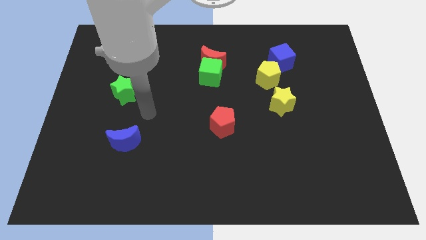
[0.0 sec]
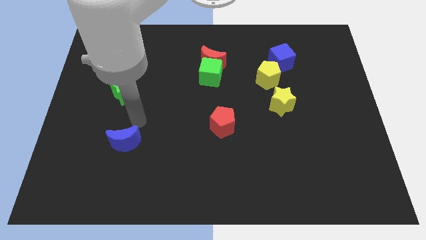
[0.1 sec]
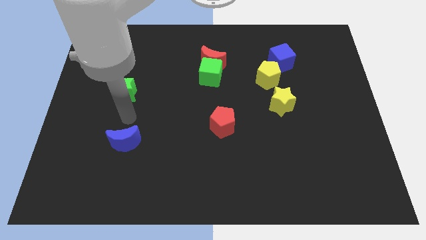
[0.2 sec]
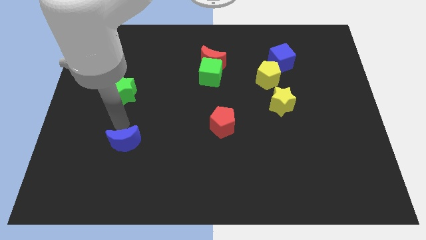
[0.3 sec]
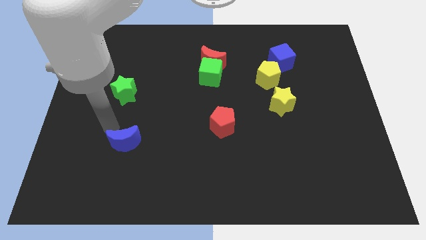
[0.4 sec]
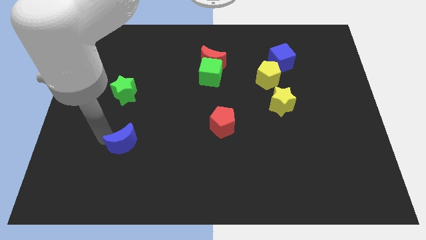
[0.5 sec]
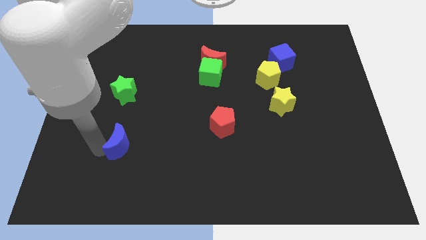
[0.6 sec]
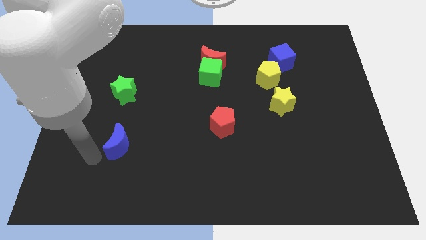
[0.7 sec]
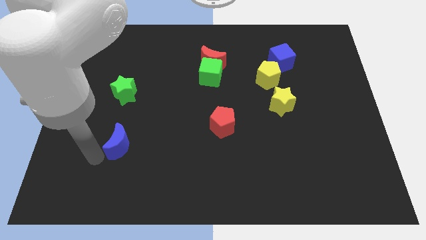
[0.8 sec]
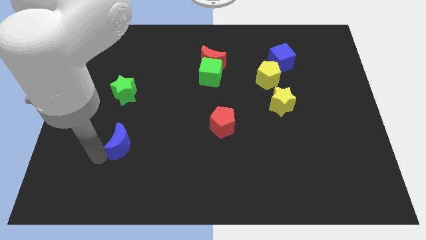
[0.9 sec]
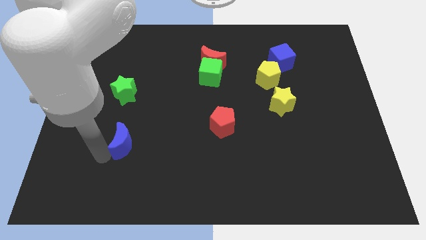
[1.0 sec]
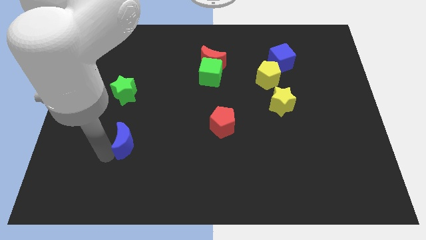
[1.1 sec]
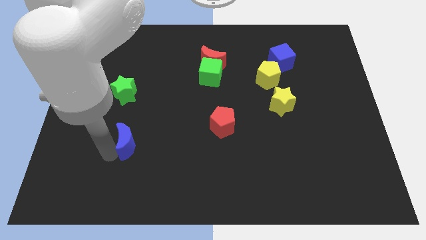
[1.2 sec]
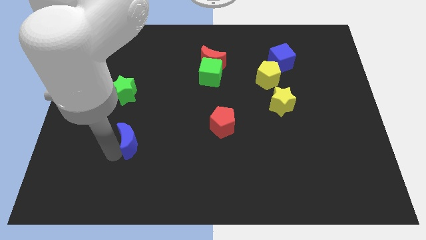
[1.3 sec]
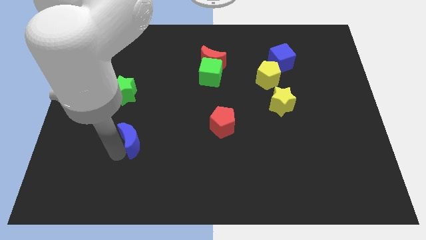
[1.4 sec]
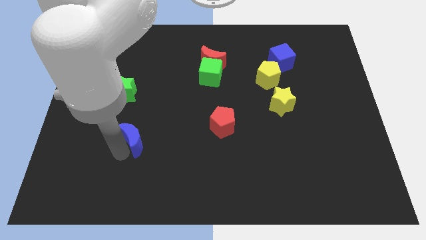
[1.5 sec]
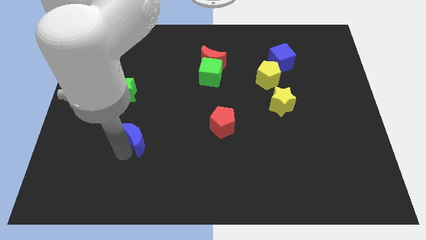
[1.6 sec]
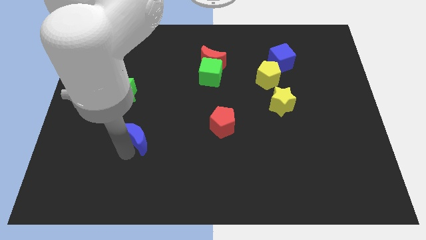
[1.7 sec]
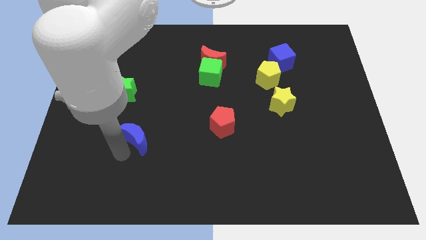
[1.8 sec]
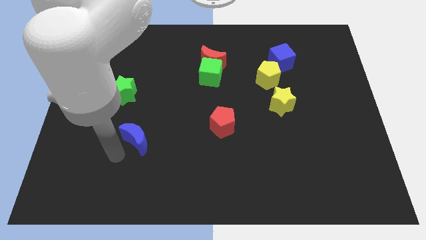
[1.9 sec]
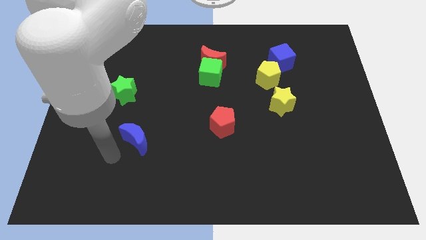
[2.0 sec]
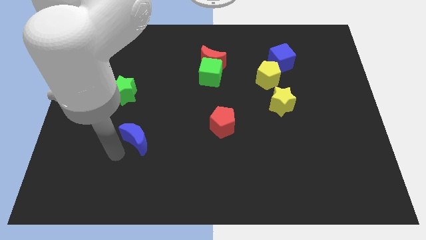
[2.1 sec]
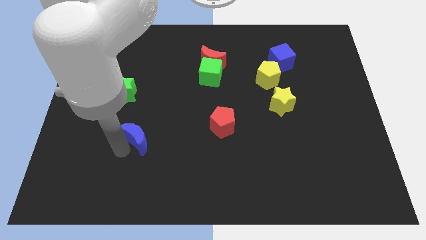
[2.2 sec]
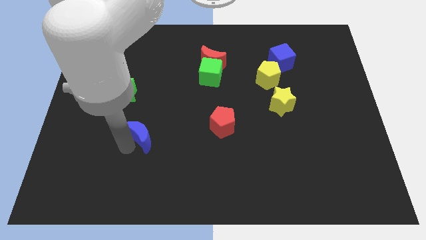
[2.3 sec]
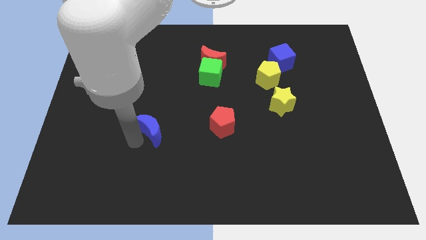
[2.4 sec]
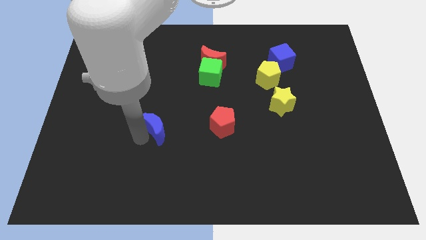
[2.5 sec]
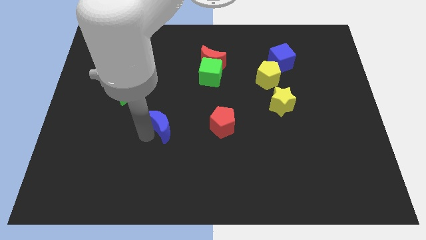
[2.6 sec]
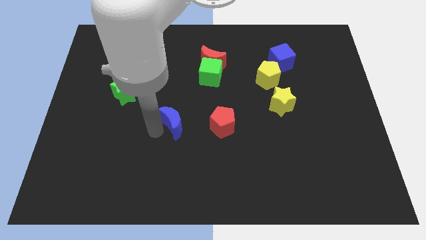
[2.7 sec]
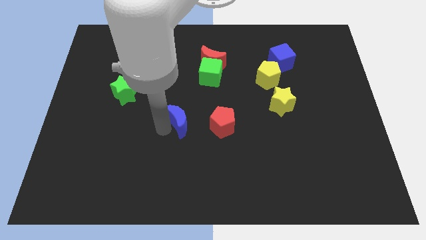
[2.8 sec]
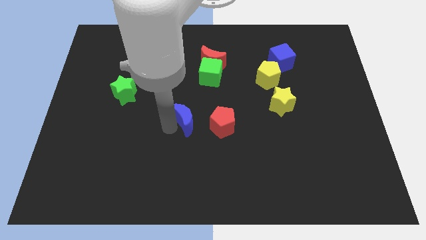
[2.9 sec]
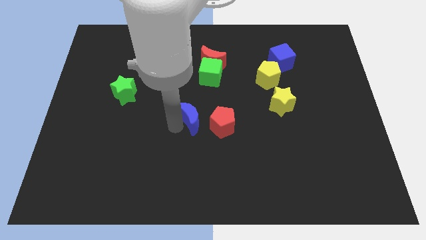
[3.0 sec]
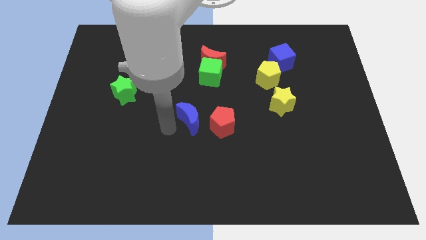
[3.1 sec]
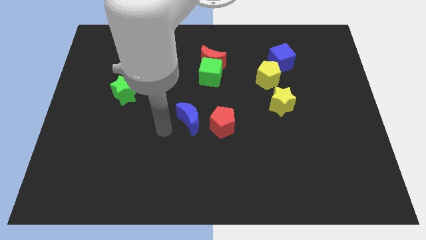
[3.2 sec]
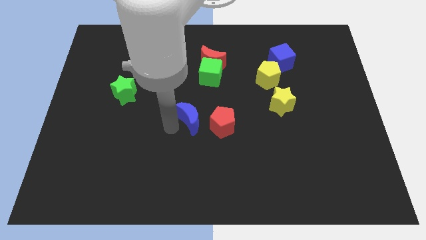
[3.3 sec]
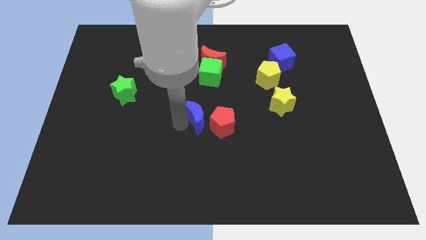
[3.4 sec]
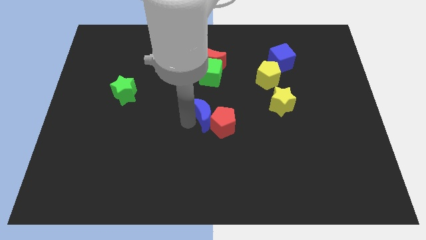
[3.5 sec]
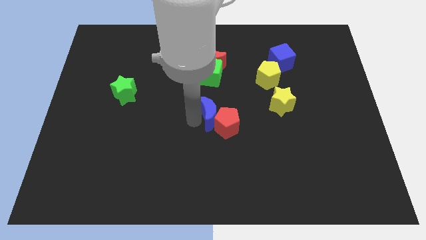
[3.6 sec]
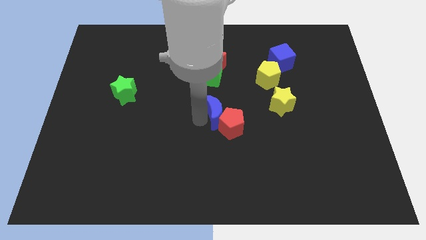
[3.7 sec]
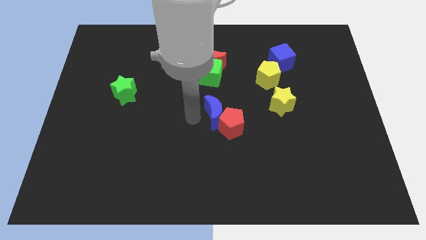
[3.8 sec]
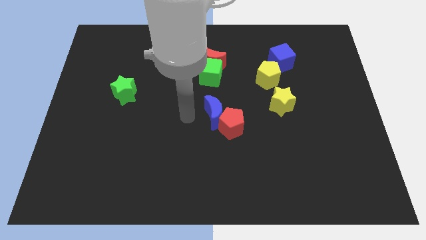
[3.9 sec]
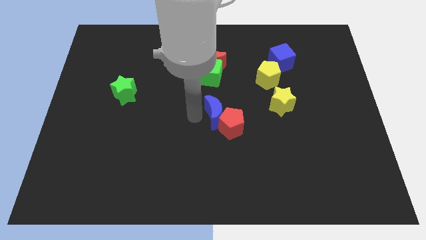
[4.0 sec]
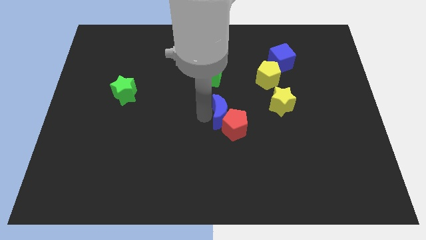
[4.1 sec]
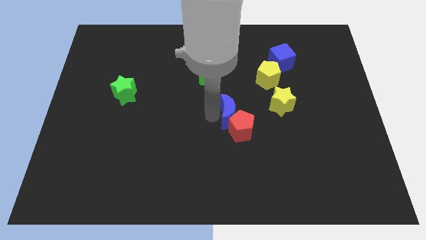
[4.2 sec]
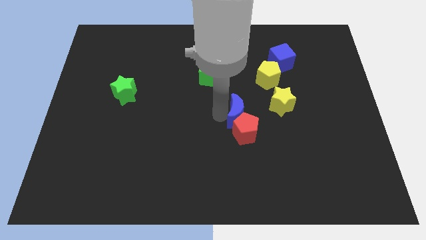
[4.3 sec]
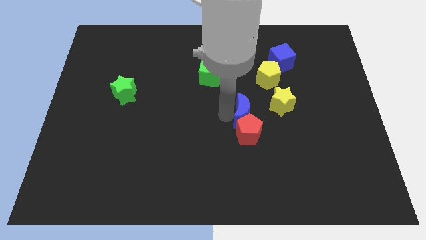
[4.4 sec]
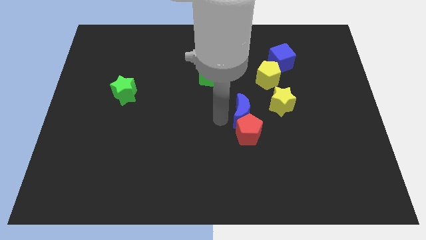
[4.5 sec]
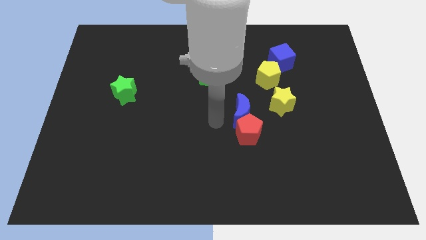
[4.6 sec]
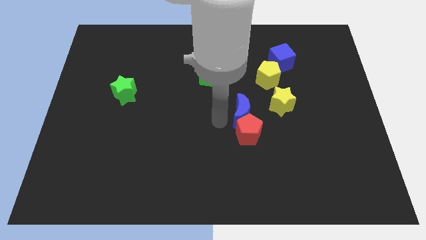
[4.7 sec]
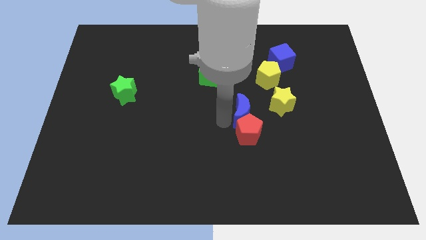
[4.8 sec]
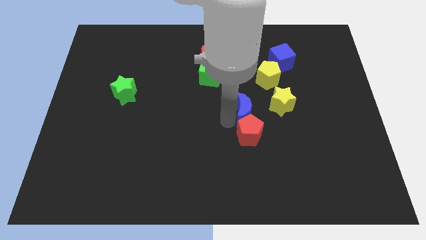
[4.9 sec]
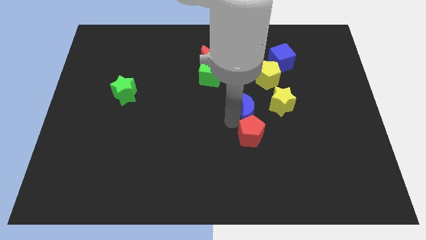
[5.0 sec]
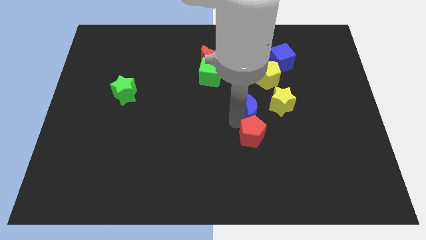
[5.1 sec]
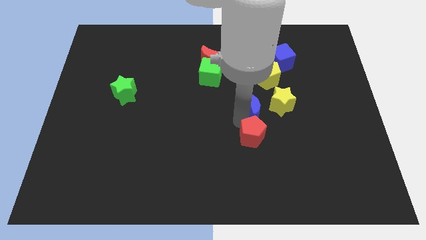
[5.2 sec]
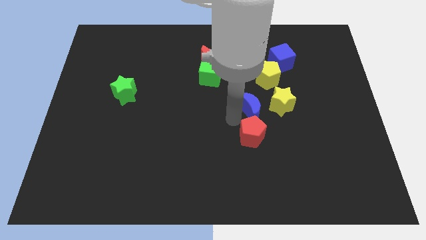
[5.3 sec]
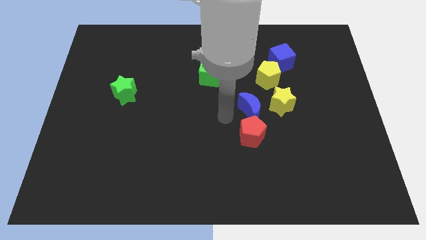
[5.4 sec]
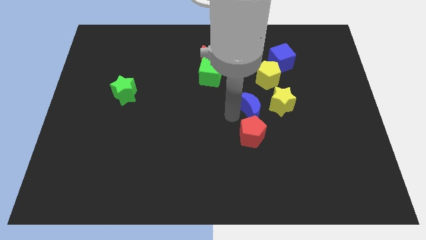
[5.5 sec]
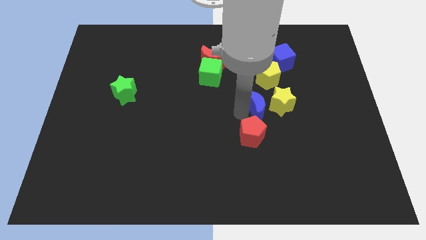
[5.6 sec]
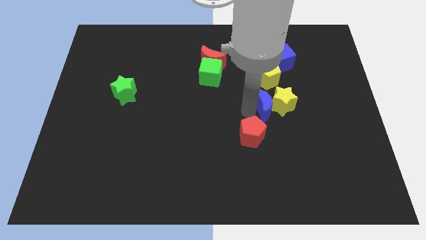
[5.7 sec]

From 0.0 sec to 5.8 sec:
push the blue moon to the yellow star

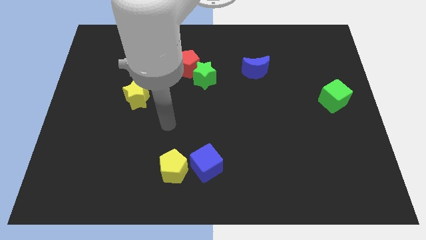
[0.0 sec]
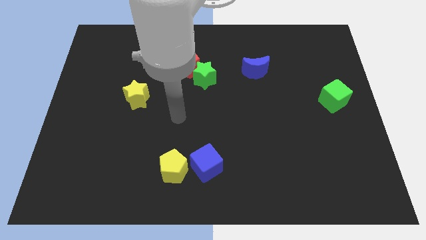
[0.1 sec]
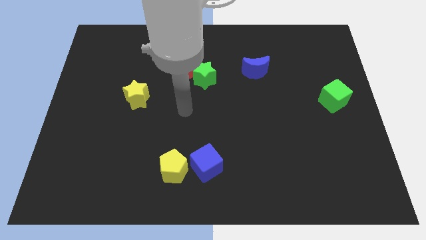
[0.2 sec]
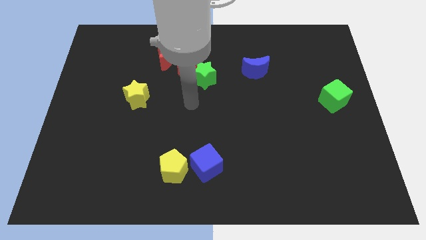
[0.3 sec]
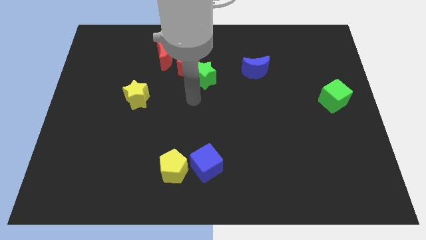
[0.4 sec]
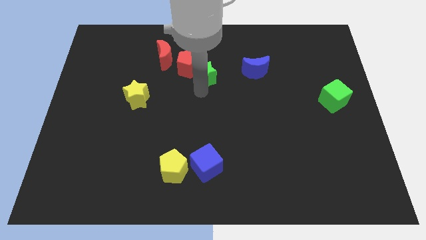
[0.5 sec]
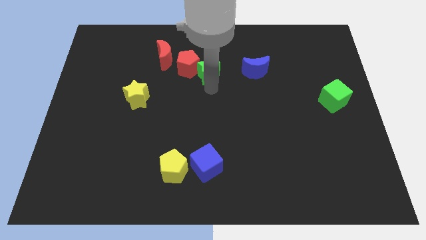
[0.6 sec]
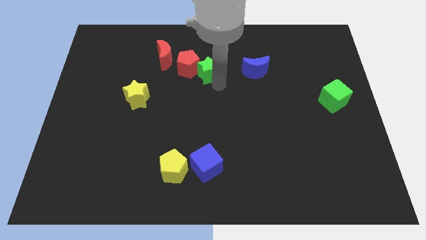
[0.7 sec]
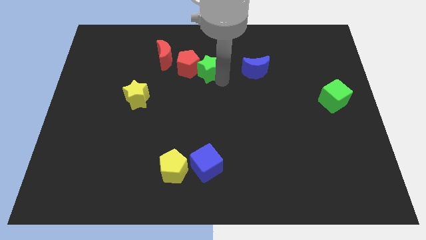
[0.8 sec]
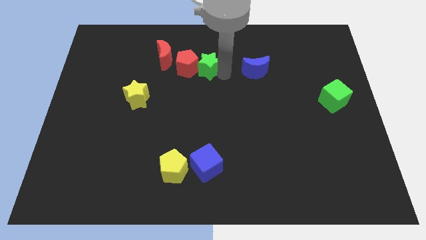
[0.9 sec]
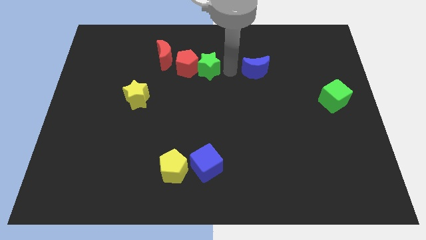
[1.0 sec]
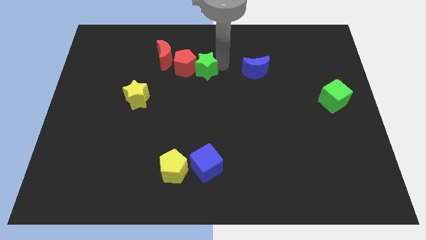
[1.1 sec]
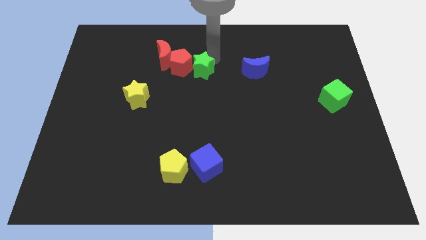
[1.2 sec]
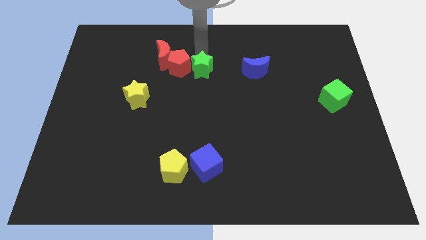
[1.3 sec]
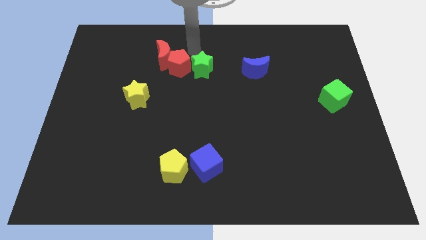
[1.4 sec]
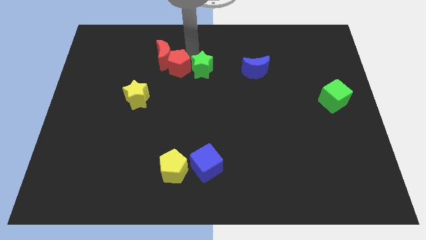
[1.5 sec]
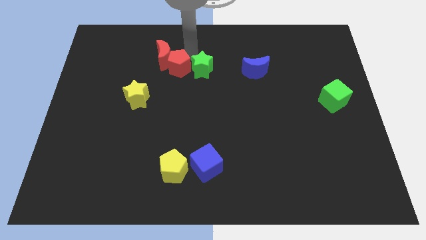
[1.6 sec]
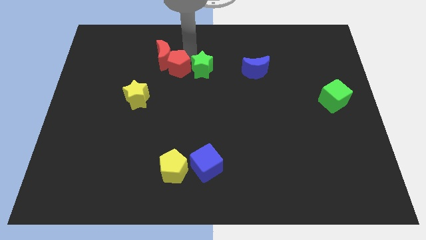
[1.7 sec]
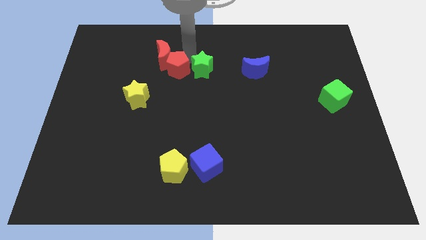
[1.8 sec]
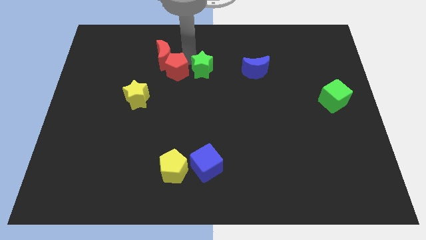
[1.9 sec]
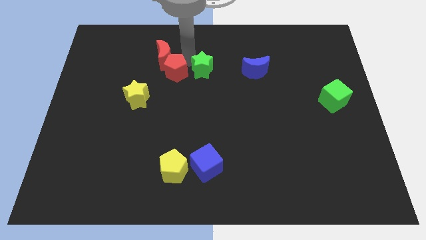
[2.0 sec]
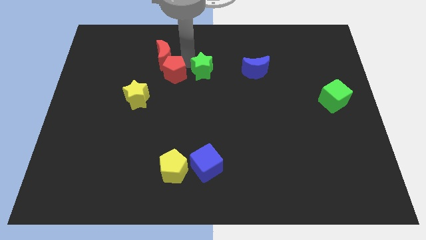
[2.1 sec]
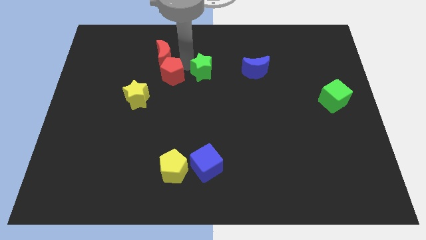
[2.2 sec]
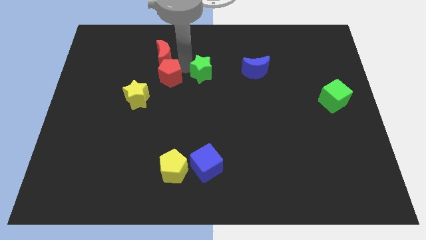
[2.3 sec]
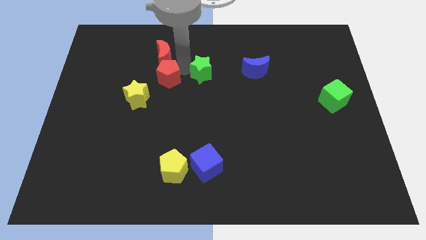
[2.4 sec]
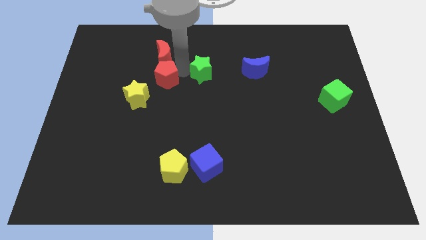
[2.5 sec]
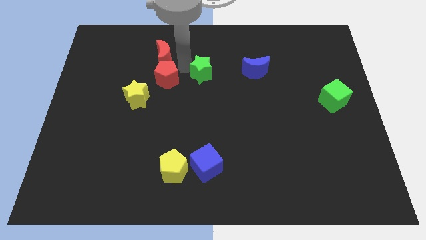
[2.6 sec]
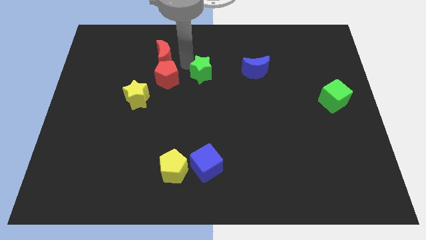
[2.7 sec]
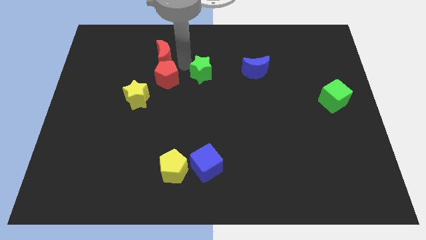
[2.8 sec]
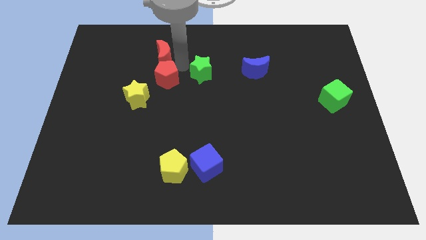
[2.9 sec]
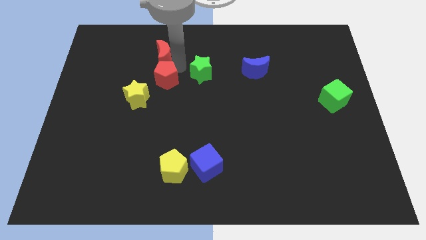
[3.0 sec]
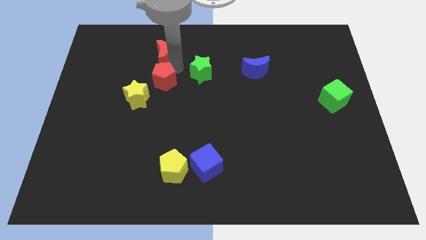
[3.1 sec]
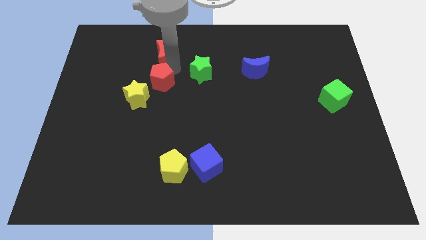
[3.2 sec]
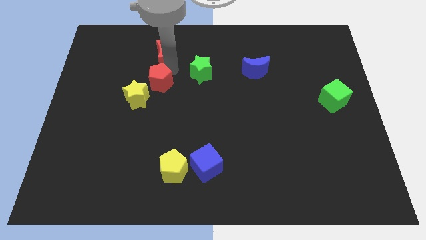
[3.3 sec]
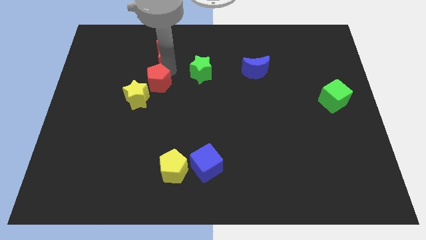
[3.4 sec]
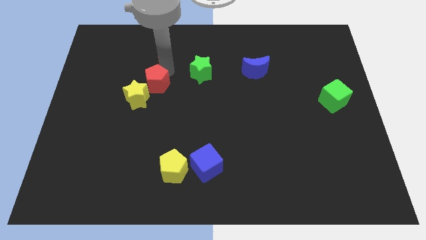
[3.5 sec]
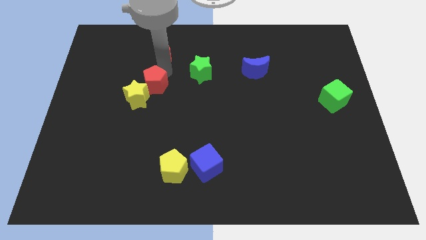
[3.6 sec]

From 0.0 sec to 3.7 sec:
slide the red pentagon next to the yellow star
